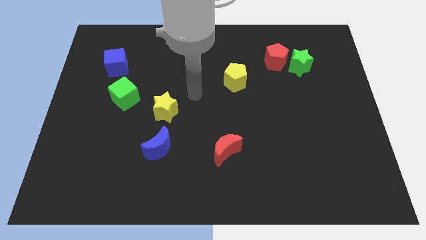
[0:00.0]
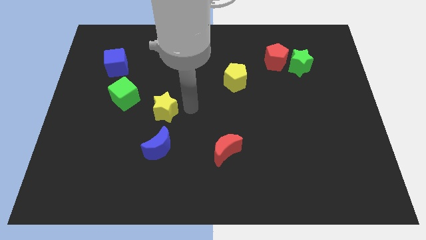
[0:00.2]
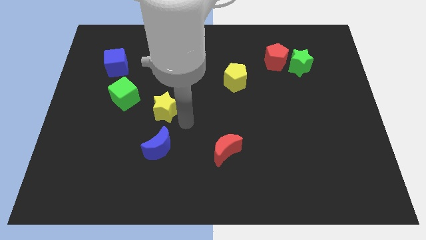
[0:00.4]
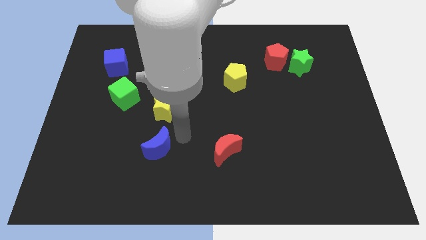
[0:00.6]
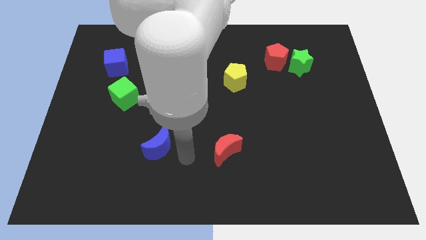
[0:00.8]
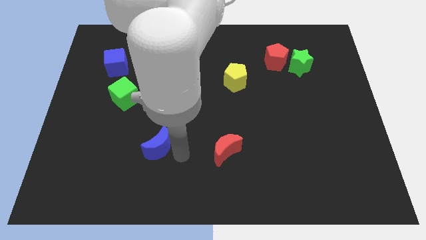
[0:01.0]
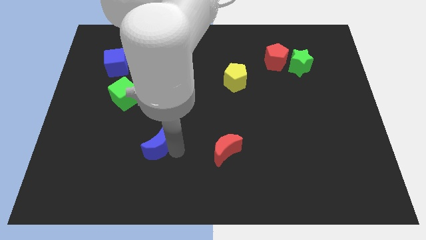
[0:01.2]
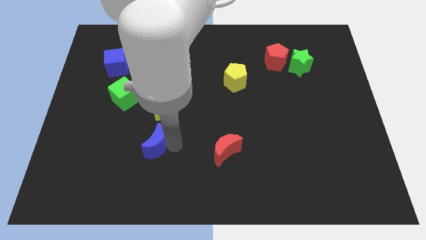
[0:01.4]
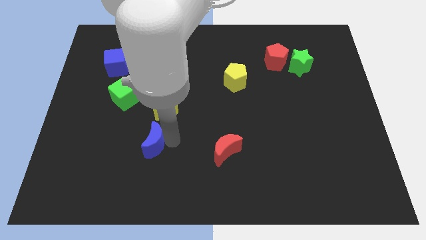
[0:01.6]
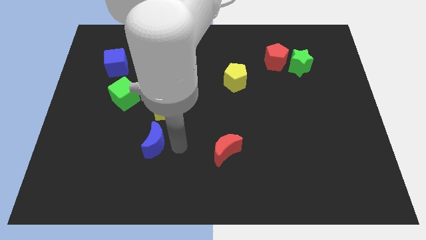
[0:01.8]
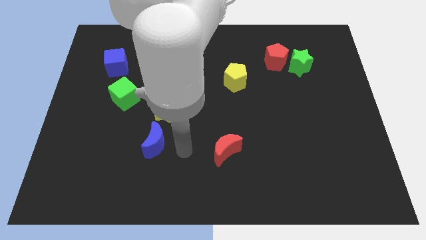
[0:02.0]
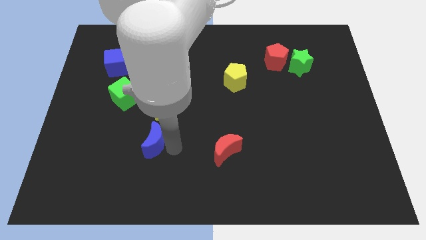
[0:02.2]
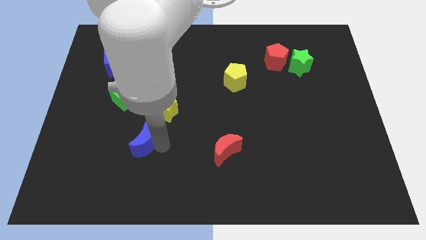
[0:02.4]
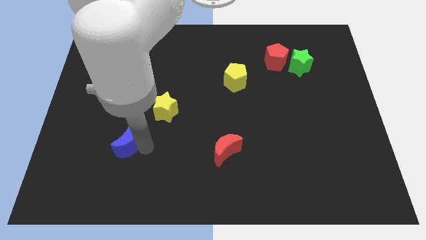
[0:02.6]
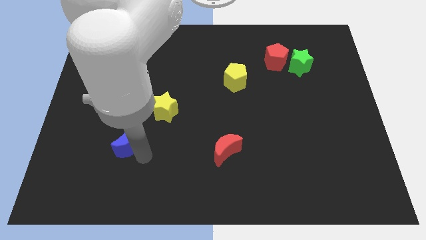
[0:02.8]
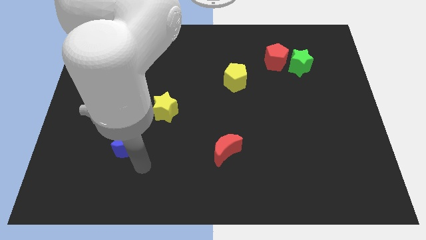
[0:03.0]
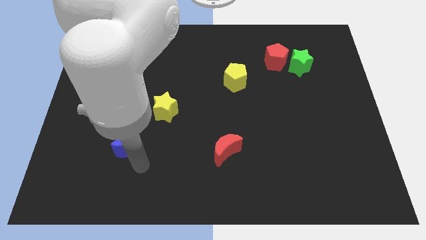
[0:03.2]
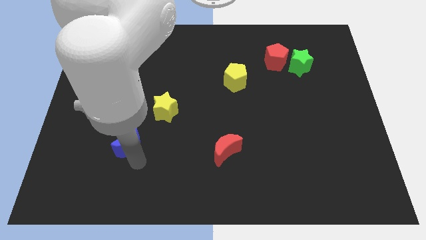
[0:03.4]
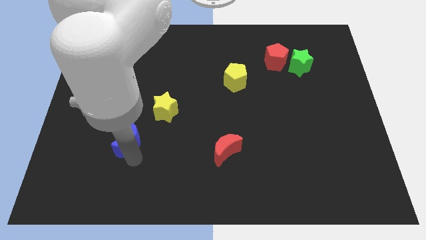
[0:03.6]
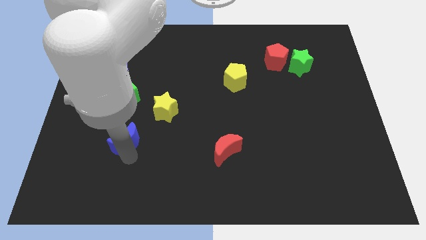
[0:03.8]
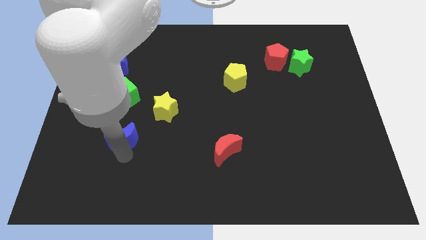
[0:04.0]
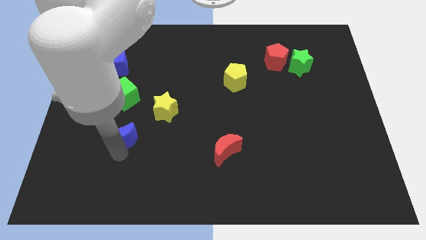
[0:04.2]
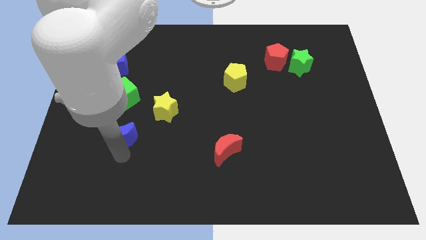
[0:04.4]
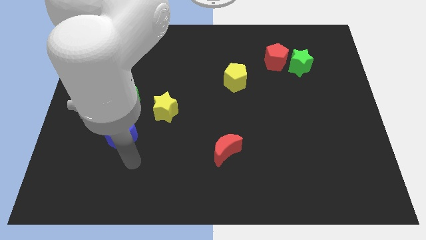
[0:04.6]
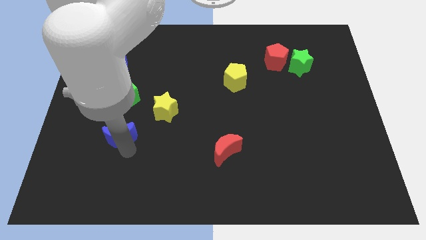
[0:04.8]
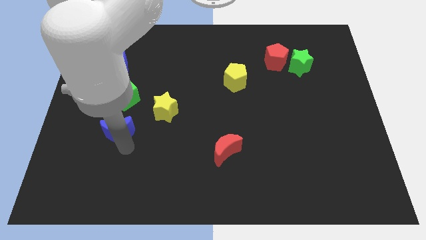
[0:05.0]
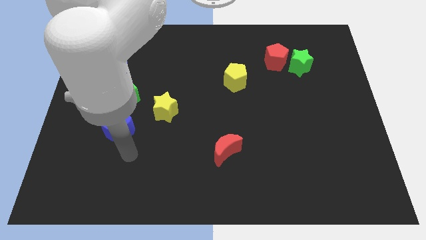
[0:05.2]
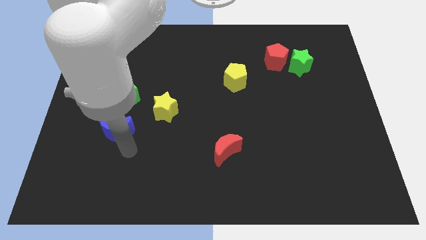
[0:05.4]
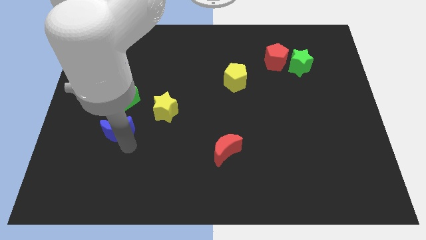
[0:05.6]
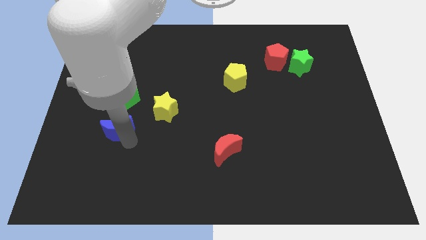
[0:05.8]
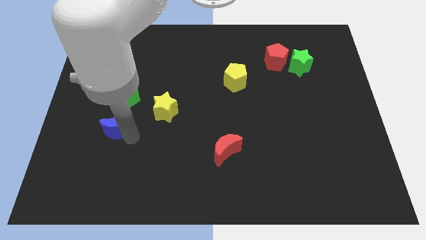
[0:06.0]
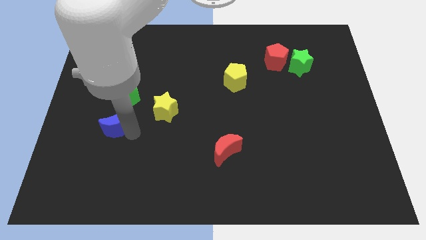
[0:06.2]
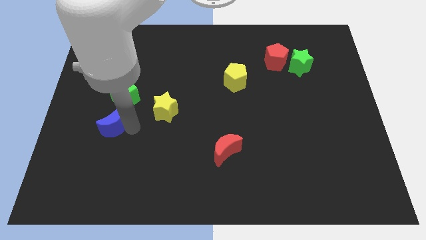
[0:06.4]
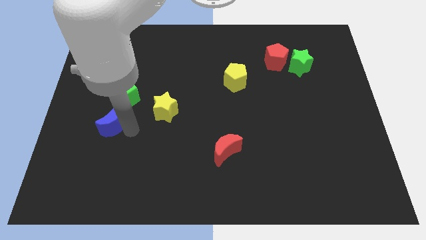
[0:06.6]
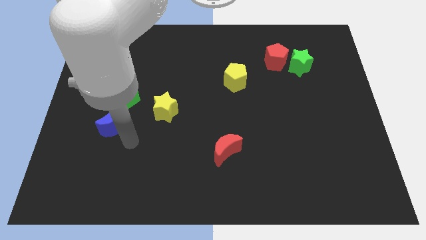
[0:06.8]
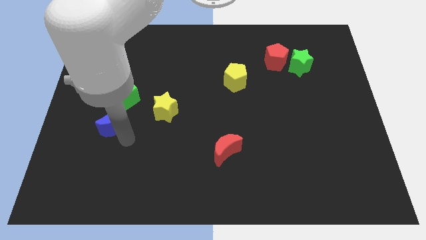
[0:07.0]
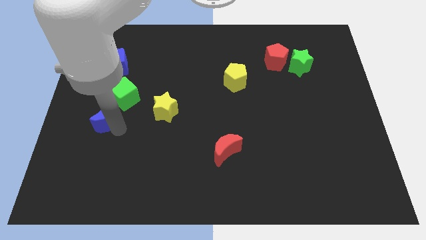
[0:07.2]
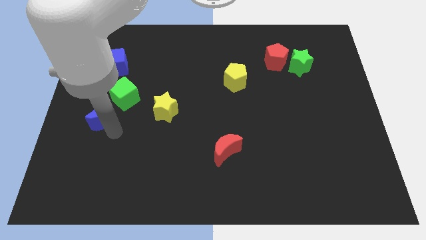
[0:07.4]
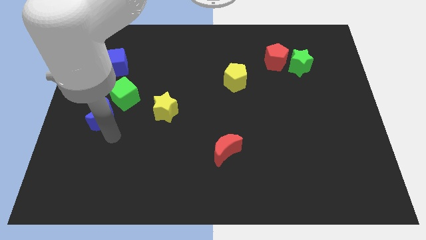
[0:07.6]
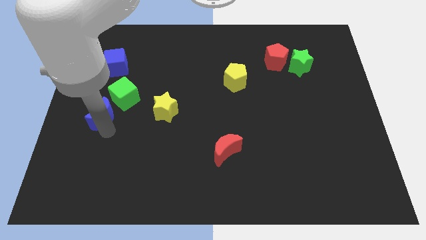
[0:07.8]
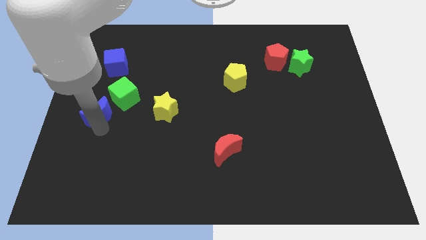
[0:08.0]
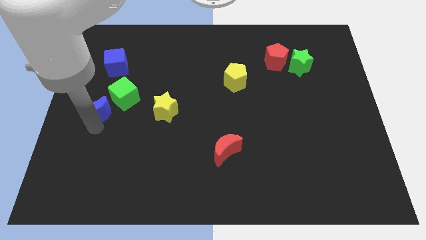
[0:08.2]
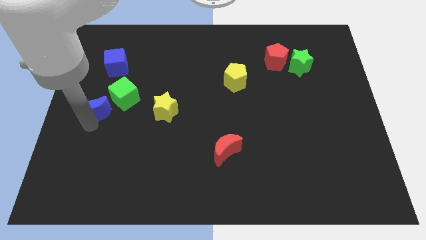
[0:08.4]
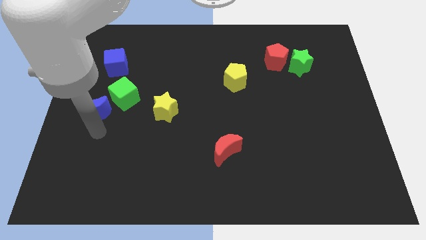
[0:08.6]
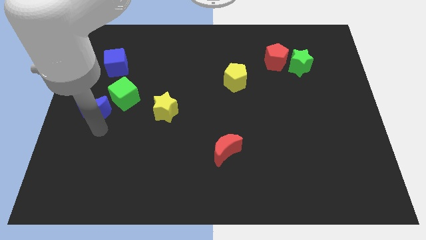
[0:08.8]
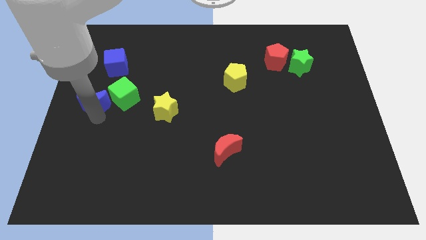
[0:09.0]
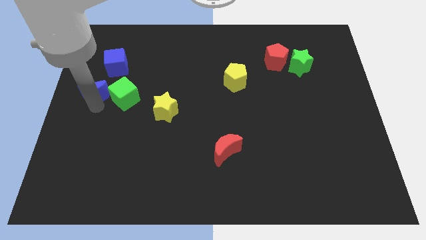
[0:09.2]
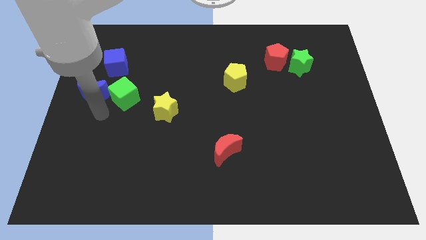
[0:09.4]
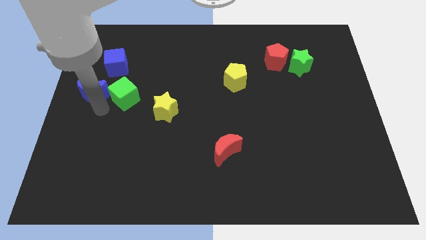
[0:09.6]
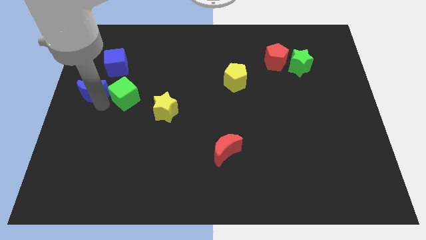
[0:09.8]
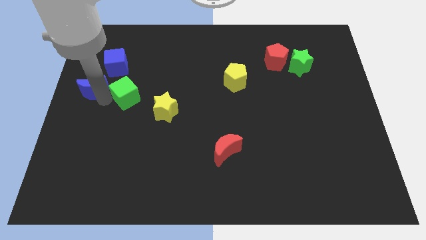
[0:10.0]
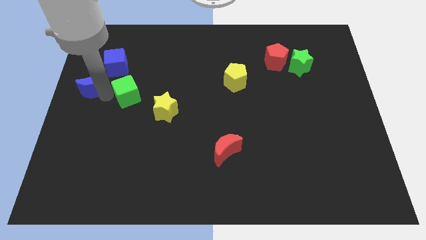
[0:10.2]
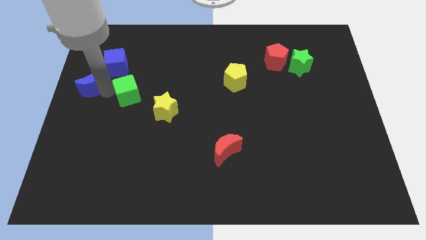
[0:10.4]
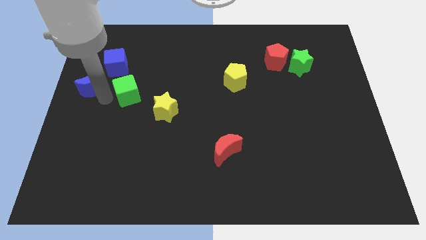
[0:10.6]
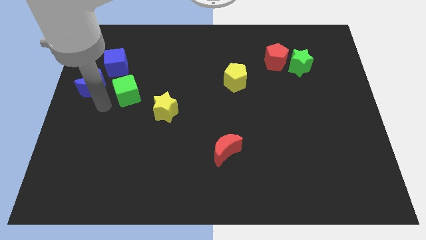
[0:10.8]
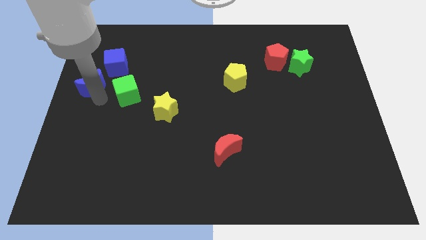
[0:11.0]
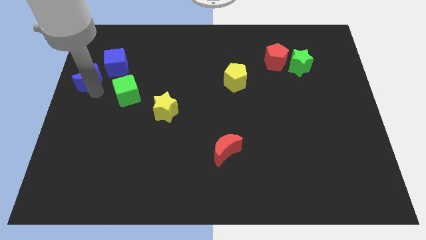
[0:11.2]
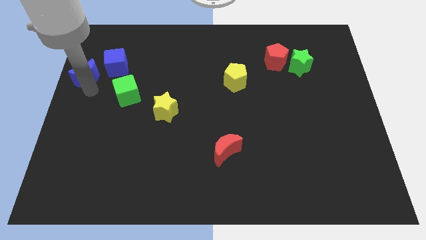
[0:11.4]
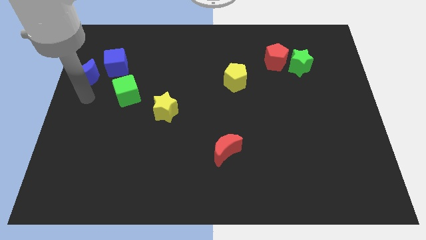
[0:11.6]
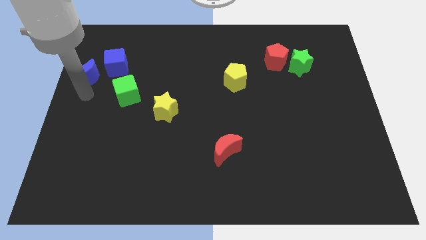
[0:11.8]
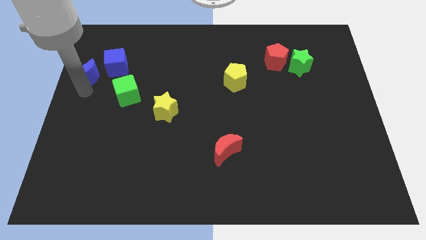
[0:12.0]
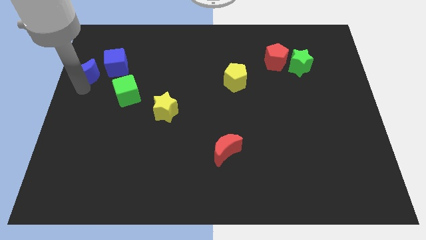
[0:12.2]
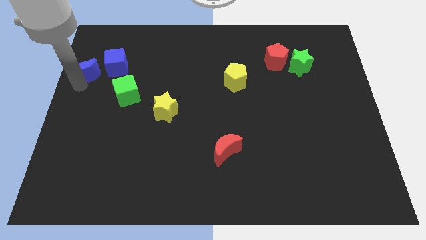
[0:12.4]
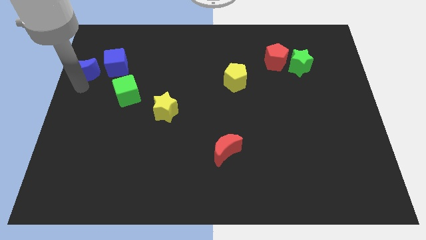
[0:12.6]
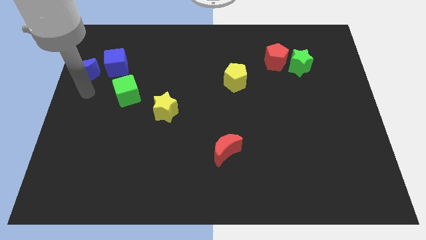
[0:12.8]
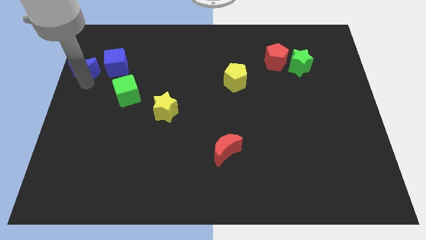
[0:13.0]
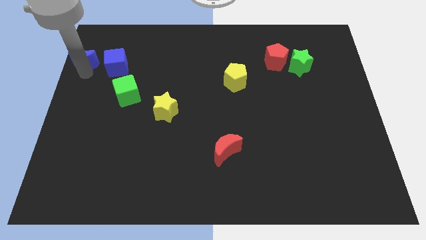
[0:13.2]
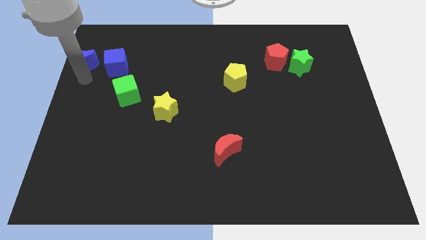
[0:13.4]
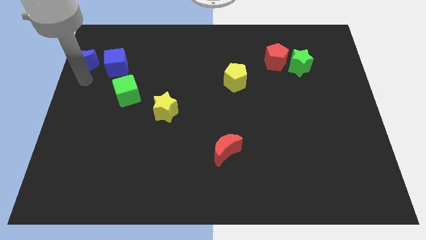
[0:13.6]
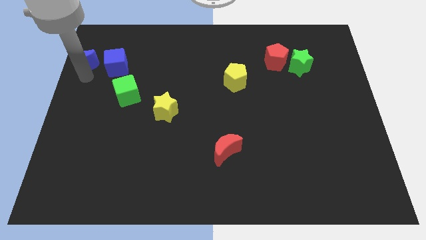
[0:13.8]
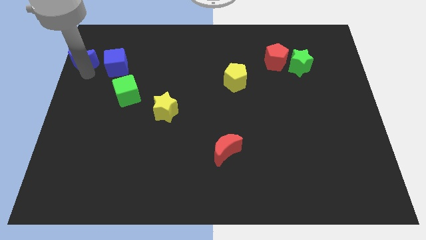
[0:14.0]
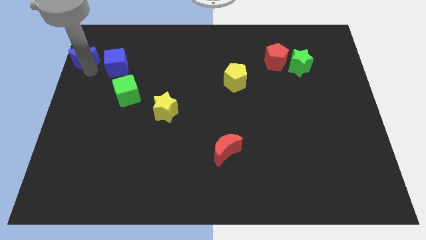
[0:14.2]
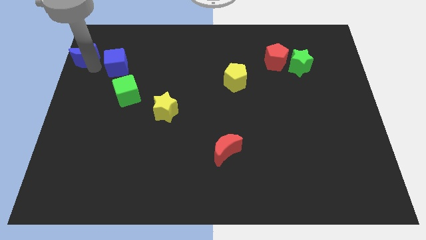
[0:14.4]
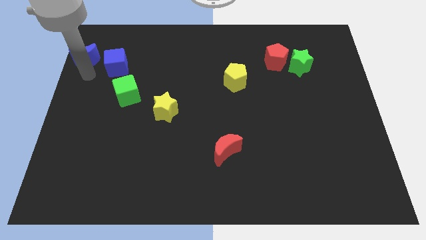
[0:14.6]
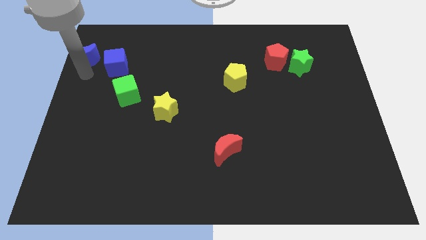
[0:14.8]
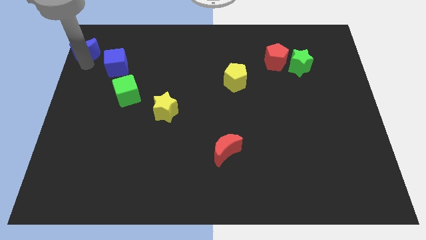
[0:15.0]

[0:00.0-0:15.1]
push the blue moon to the top left corner
